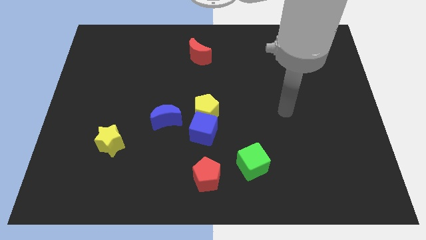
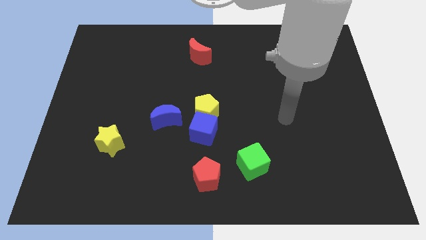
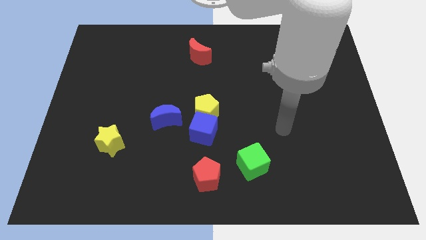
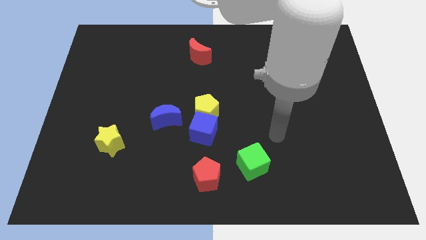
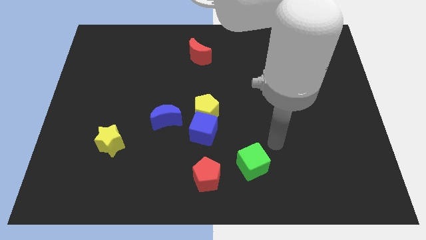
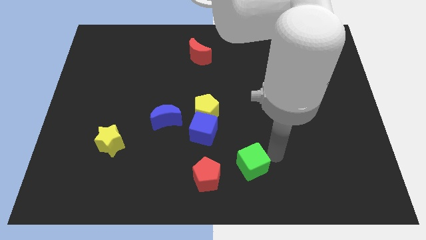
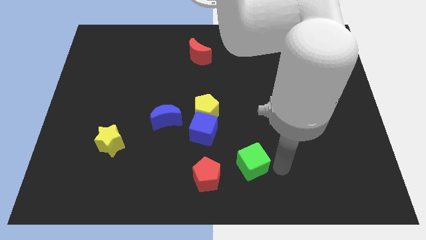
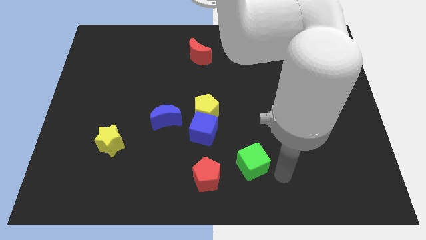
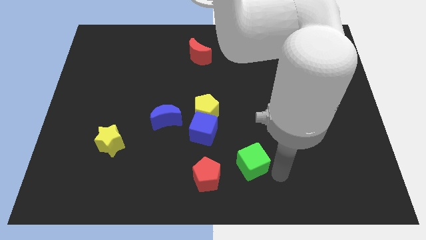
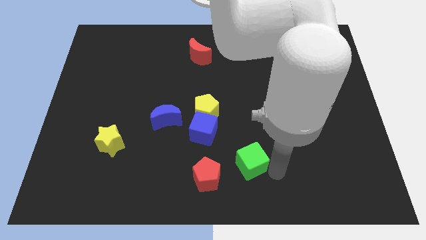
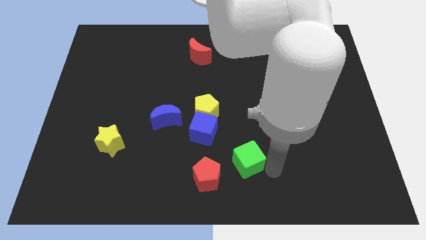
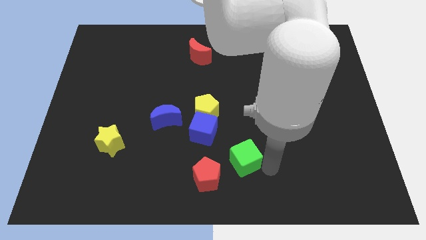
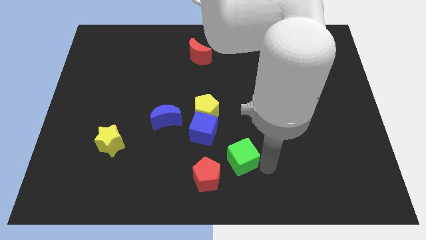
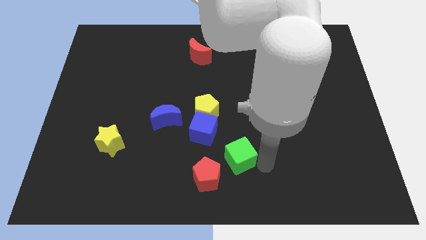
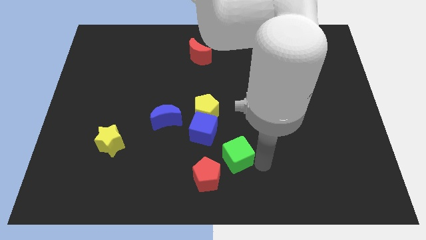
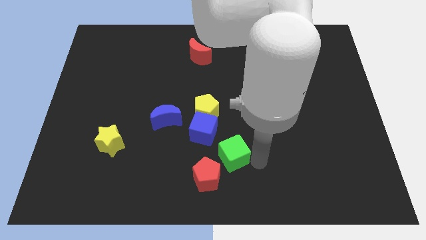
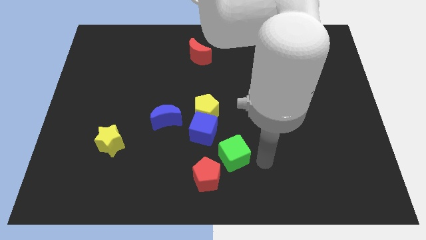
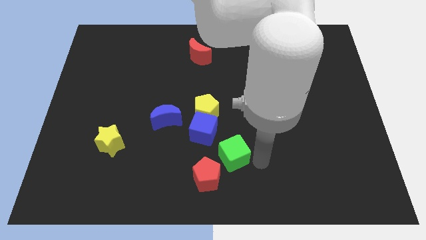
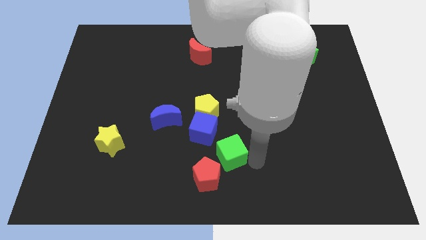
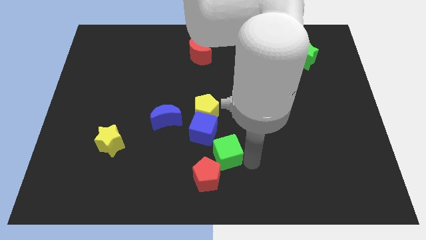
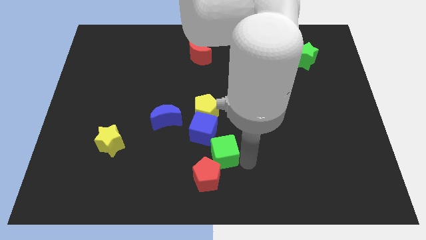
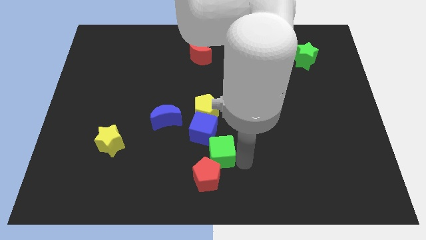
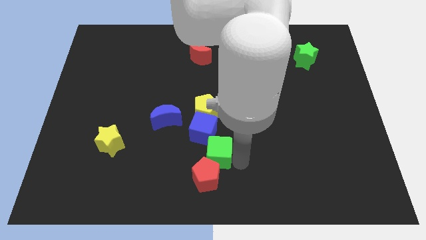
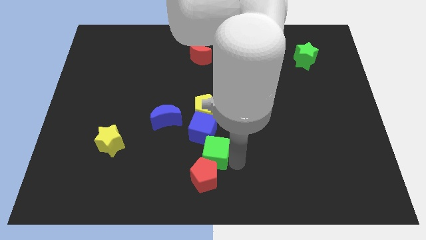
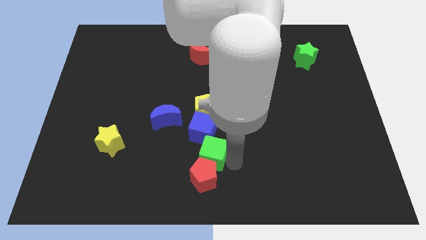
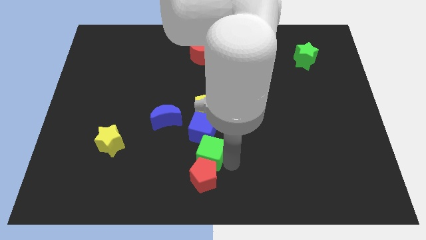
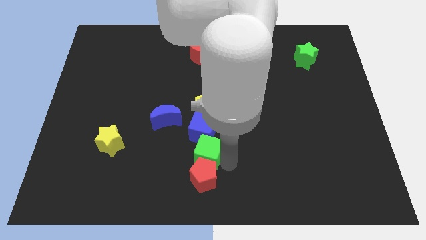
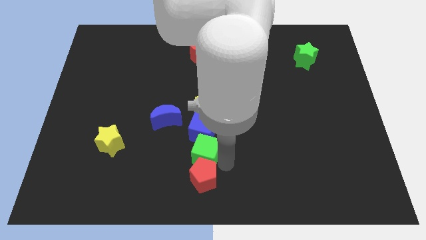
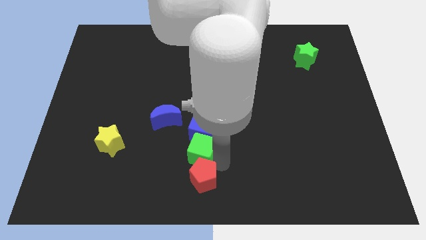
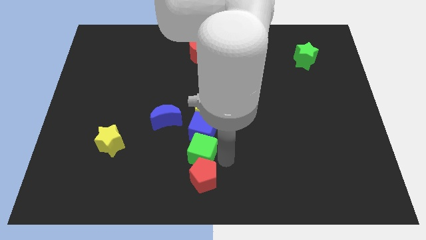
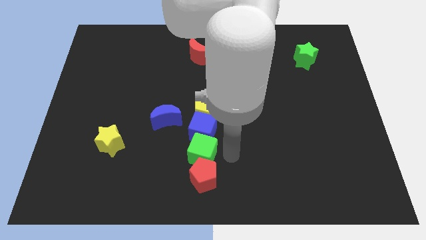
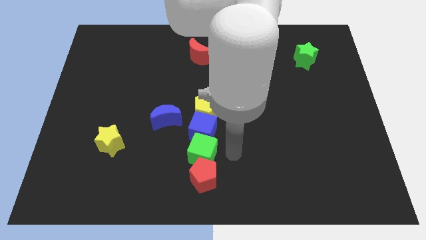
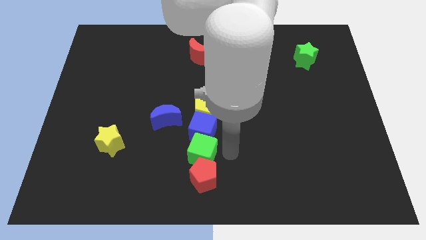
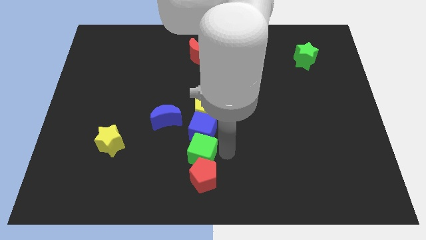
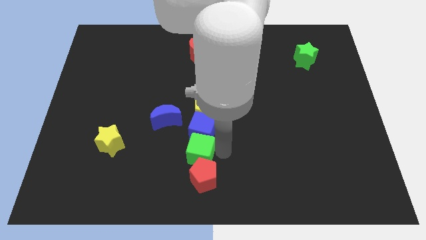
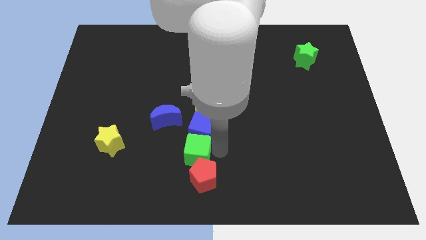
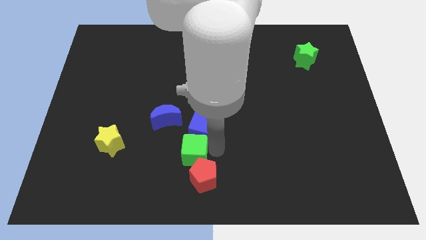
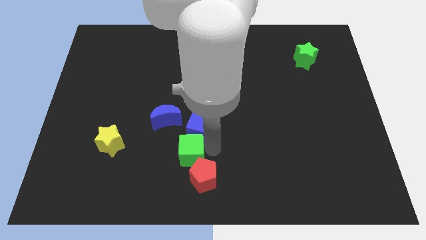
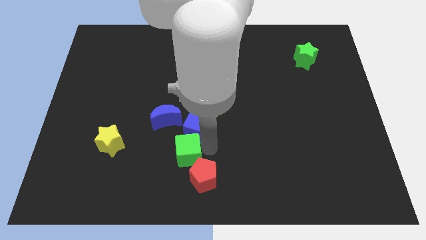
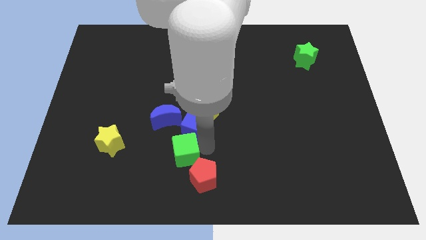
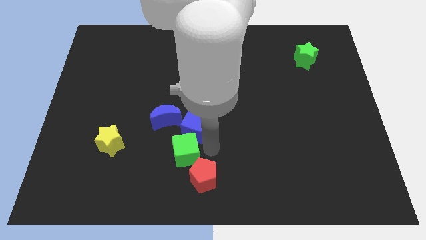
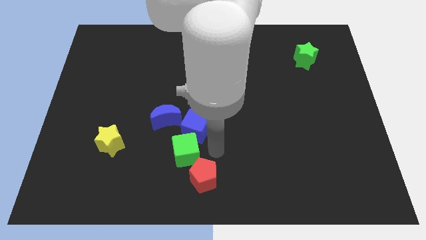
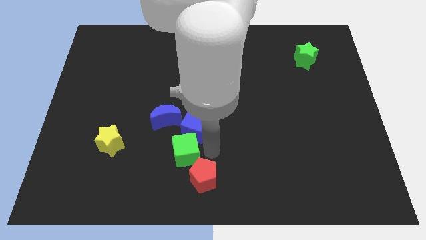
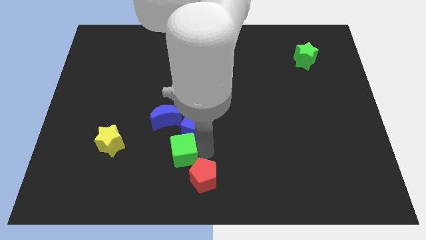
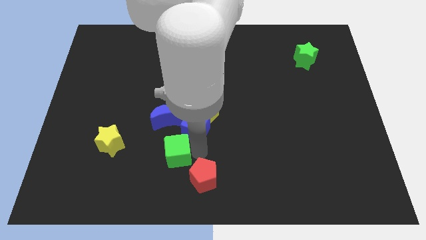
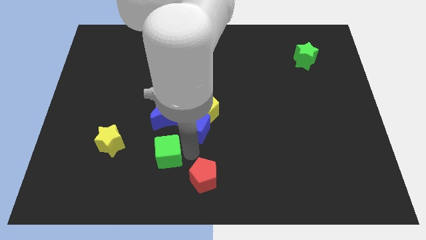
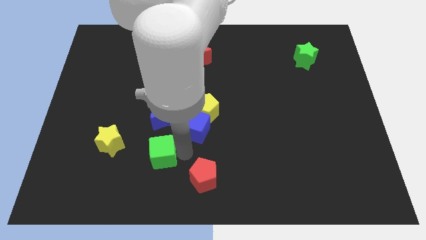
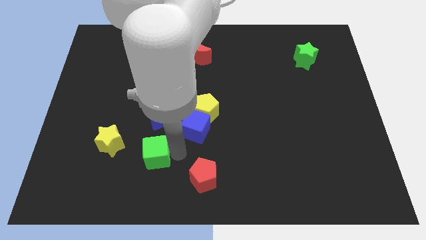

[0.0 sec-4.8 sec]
push the green cube left

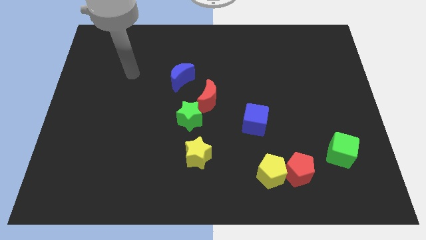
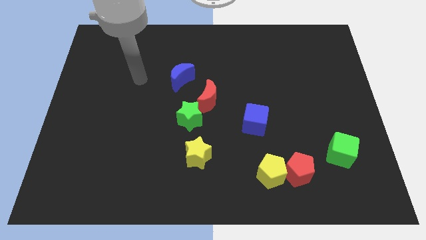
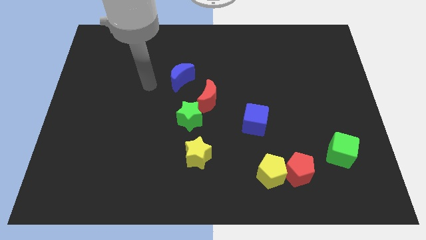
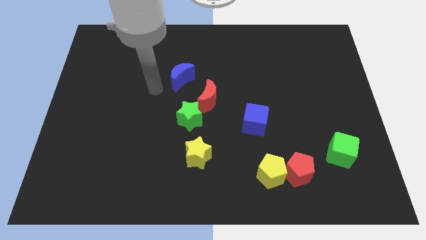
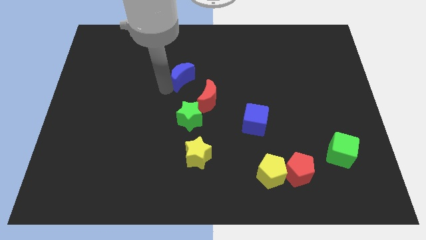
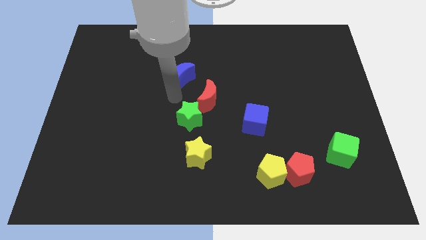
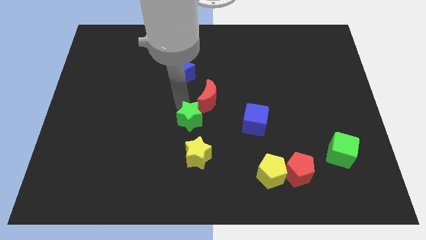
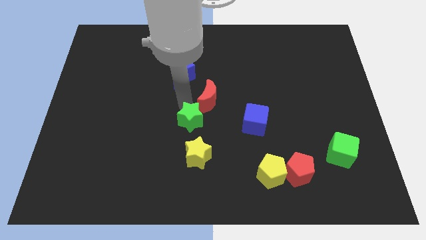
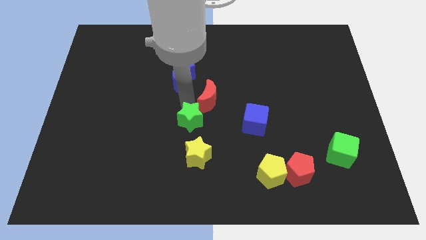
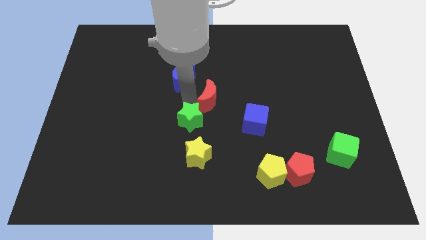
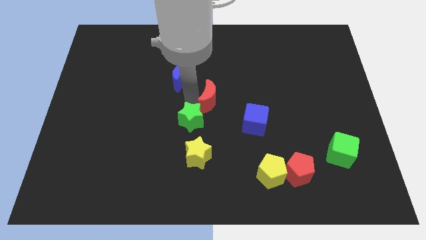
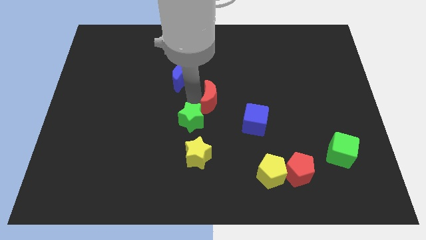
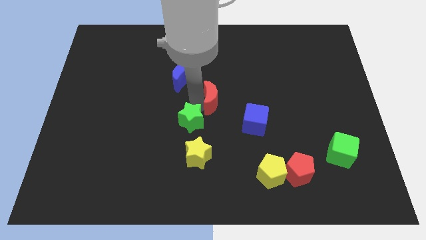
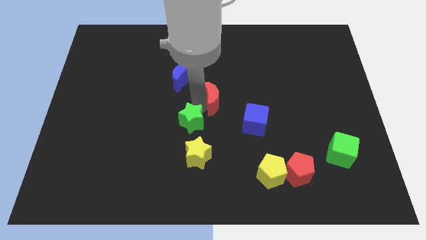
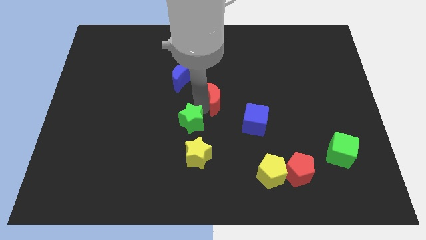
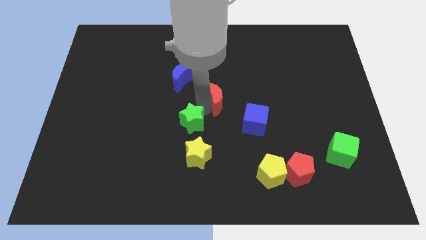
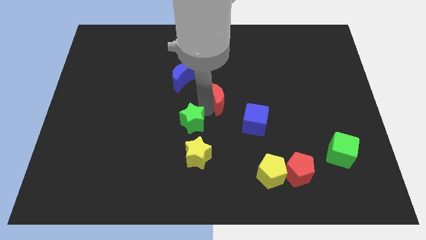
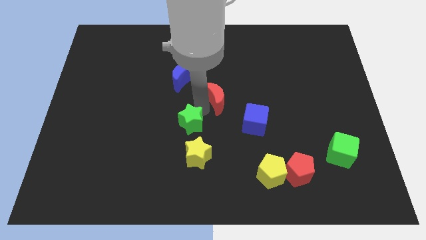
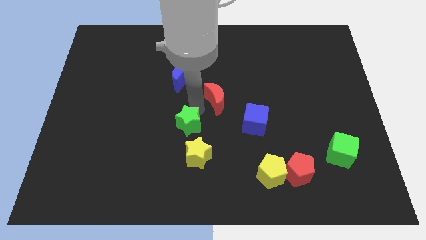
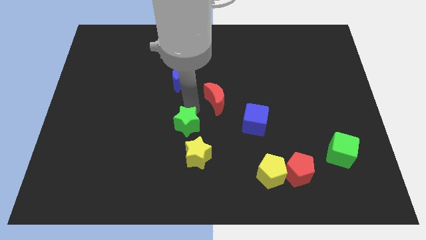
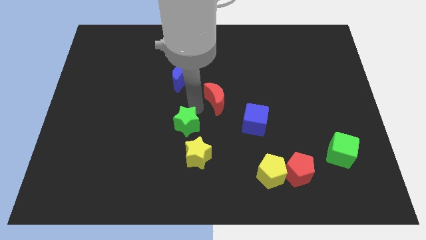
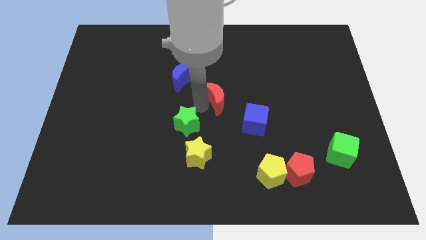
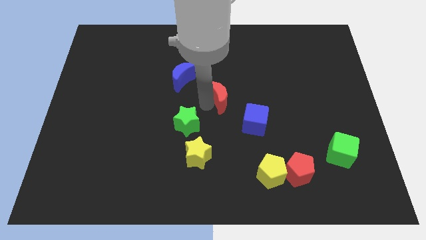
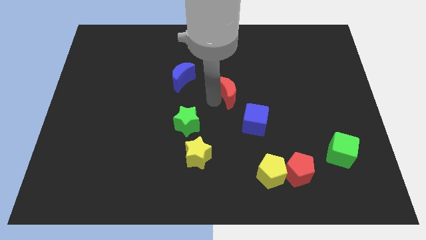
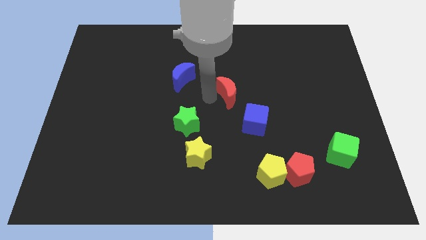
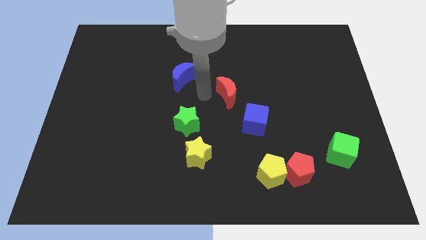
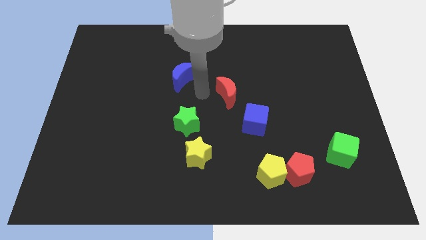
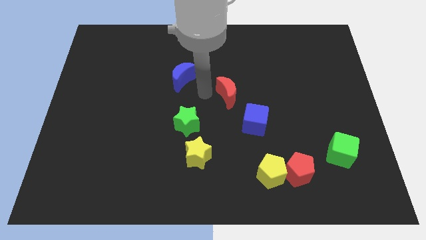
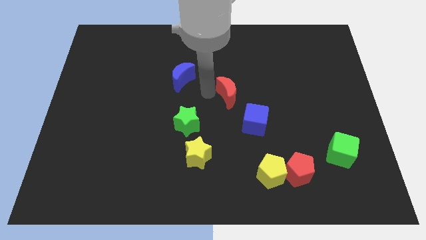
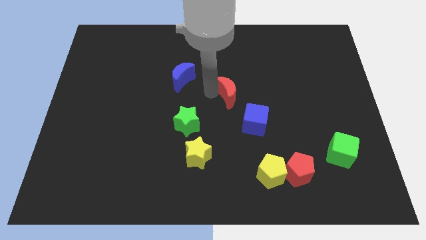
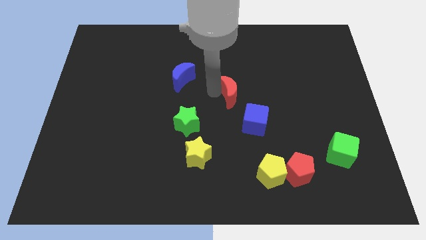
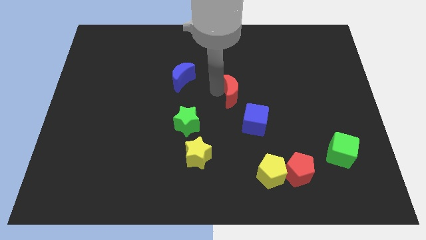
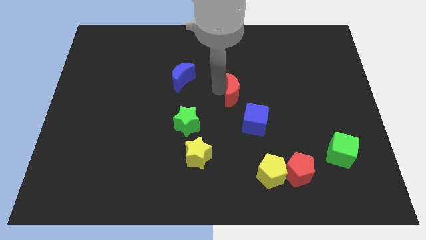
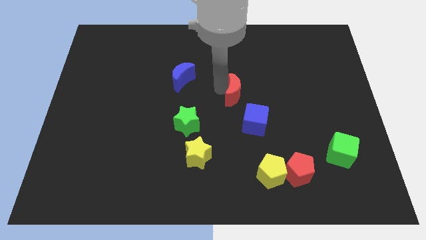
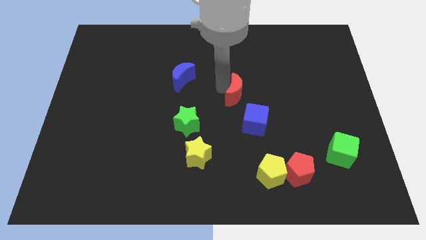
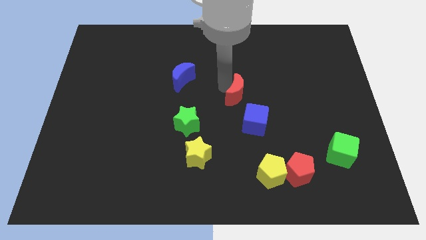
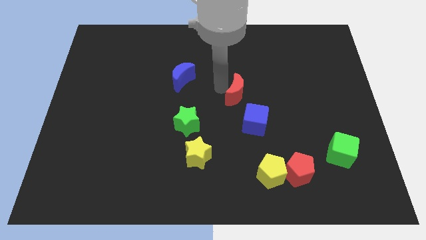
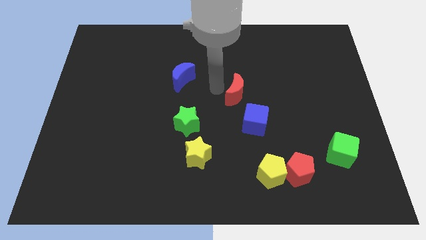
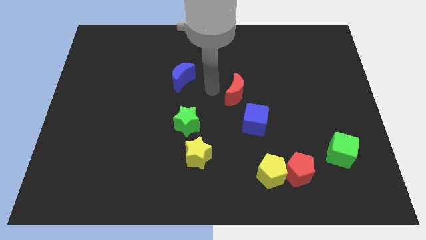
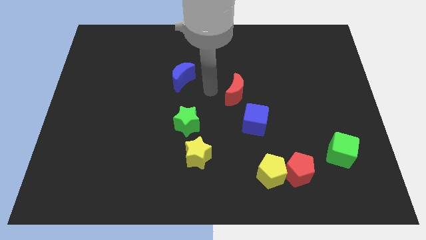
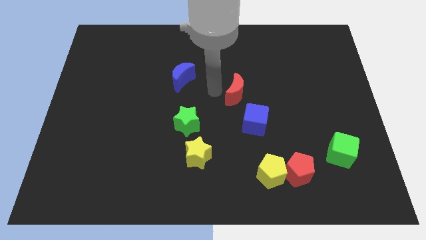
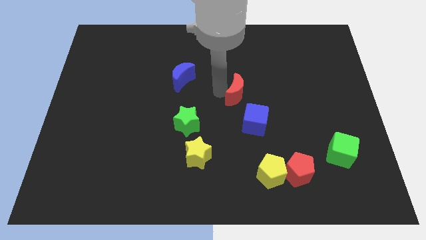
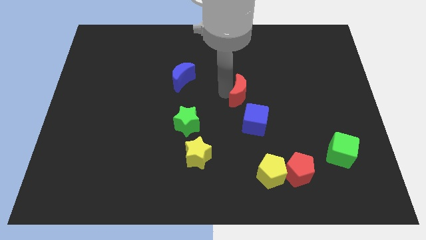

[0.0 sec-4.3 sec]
move the red moon to the right a little bit
